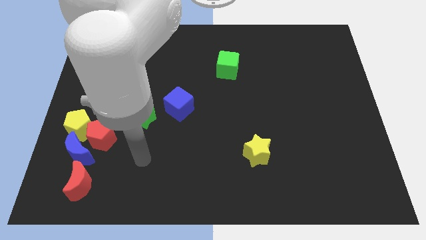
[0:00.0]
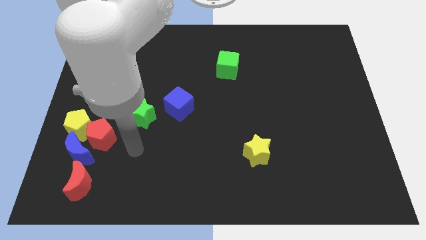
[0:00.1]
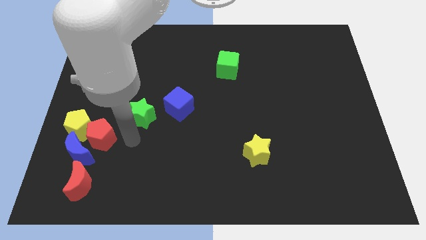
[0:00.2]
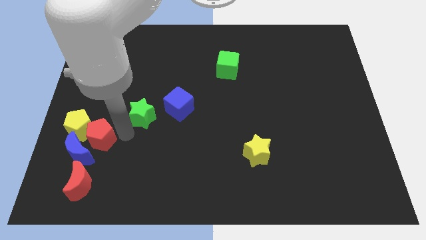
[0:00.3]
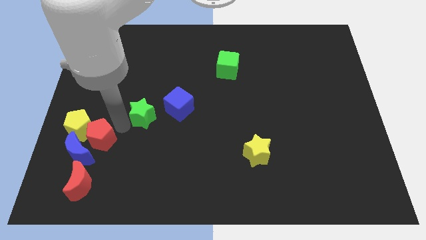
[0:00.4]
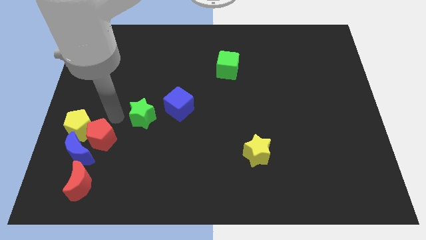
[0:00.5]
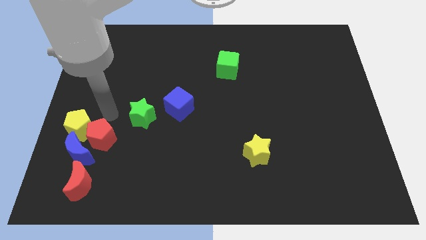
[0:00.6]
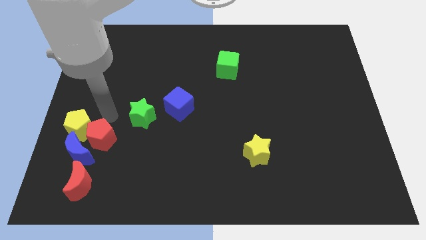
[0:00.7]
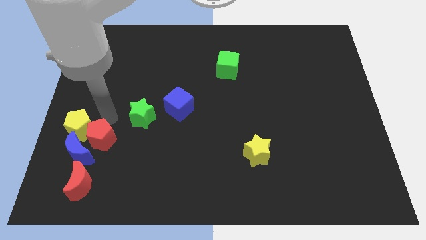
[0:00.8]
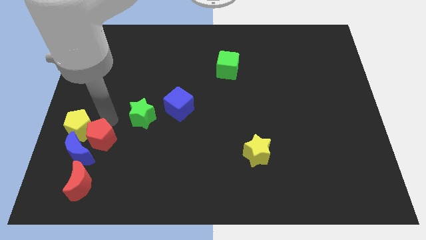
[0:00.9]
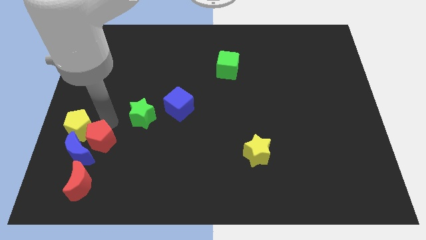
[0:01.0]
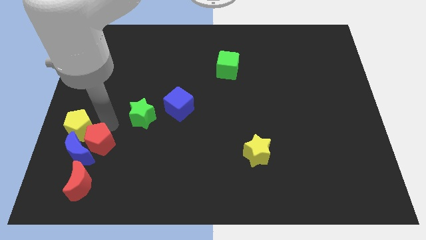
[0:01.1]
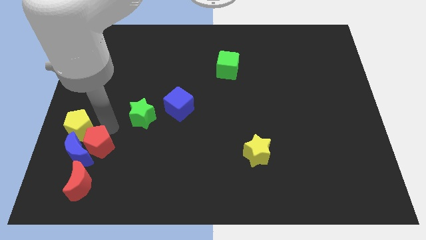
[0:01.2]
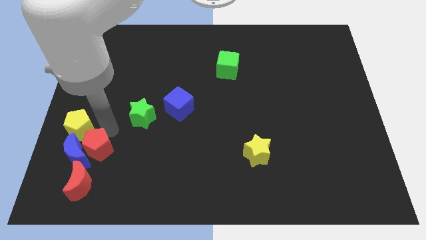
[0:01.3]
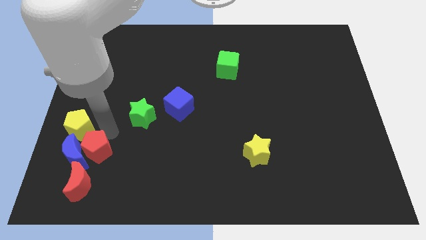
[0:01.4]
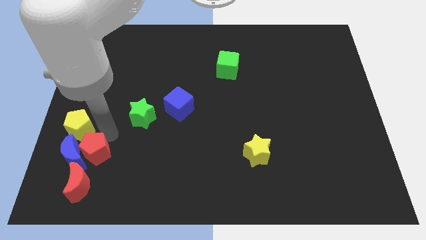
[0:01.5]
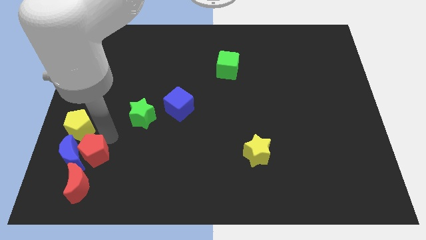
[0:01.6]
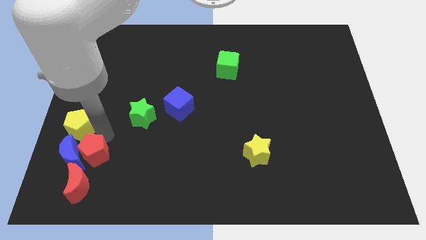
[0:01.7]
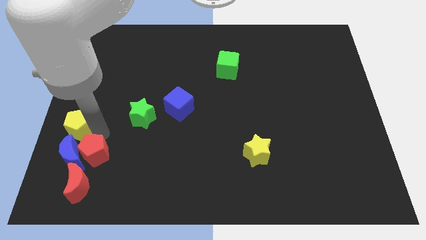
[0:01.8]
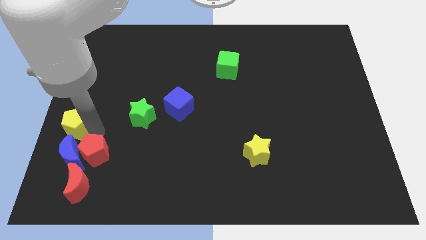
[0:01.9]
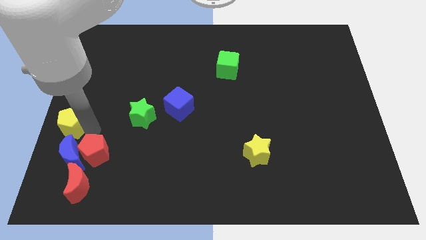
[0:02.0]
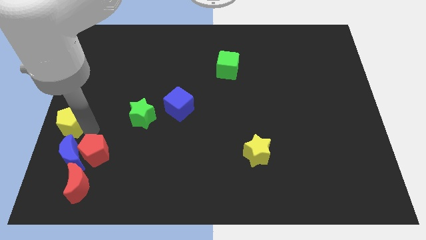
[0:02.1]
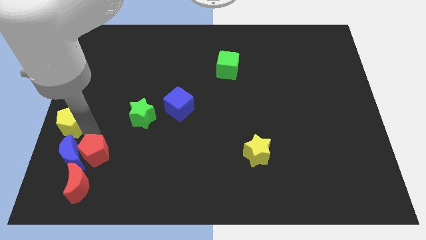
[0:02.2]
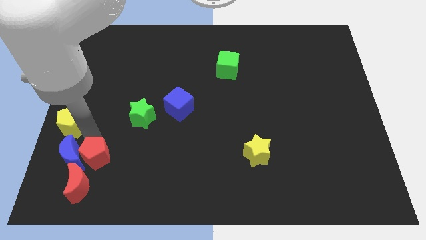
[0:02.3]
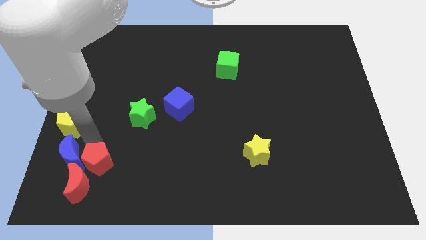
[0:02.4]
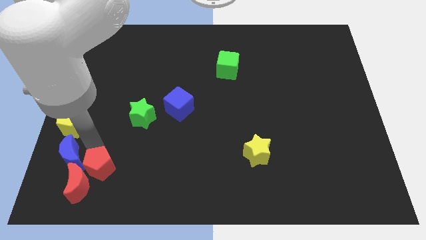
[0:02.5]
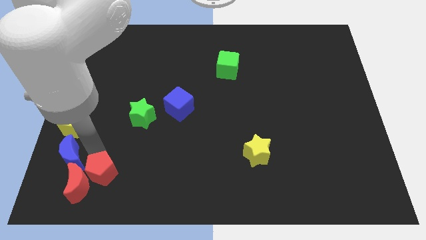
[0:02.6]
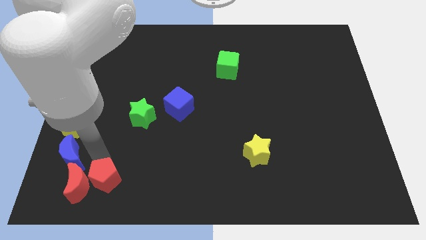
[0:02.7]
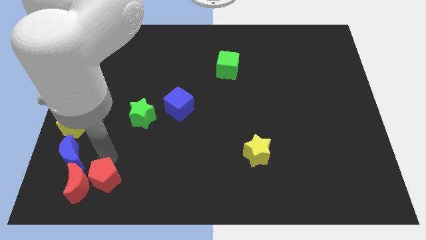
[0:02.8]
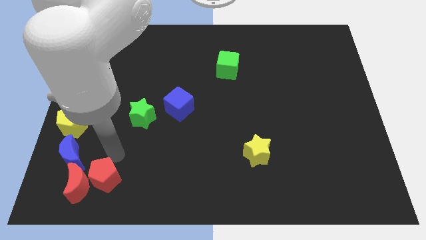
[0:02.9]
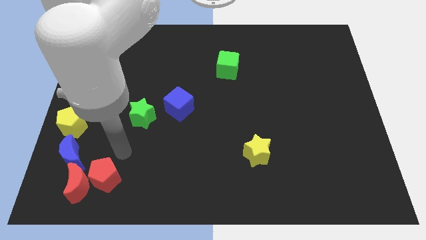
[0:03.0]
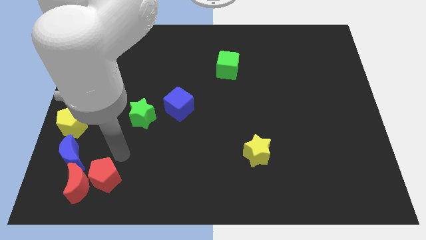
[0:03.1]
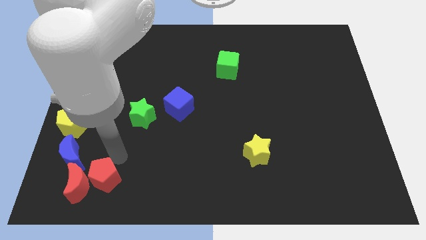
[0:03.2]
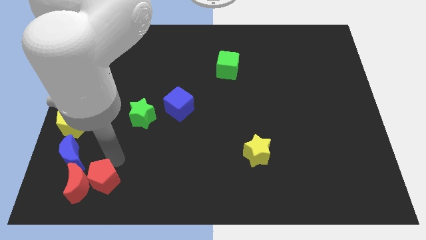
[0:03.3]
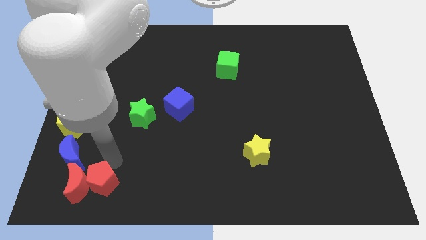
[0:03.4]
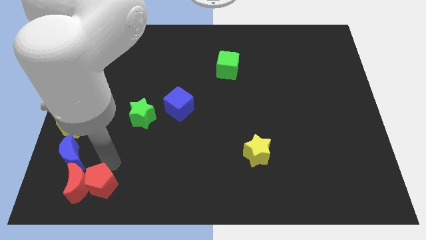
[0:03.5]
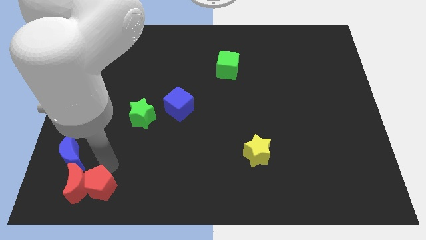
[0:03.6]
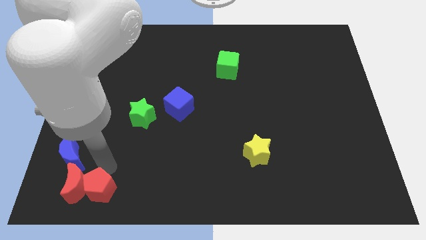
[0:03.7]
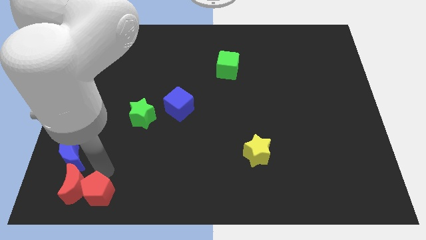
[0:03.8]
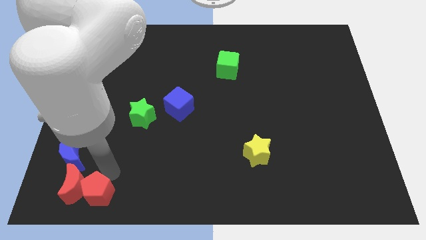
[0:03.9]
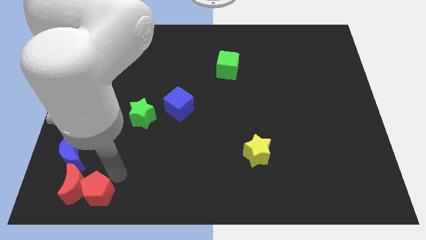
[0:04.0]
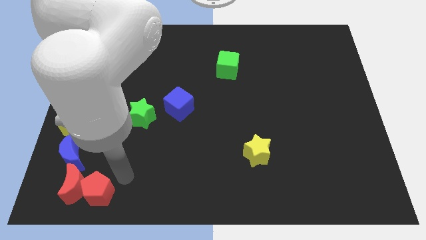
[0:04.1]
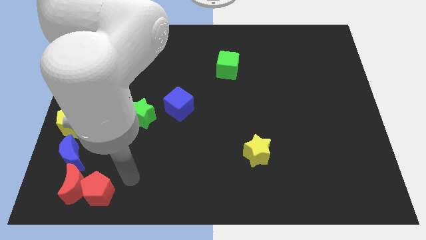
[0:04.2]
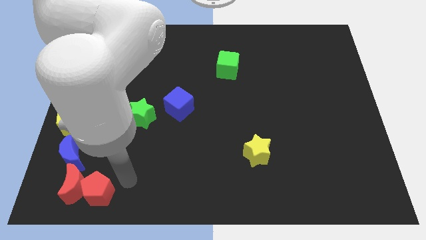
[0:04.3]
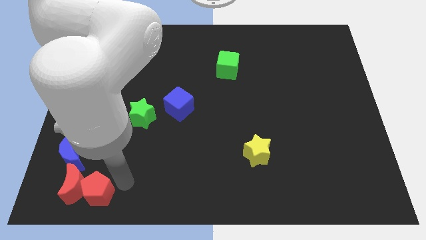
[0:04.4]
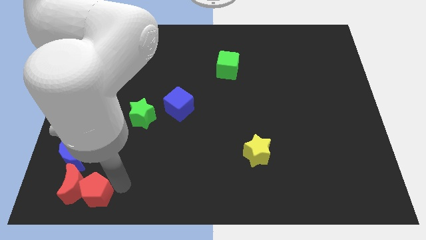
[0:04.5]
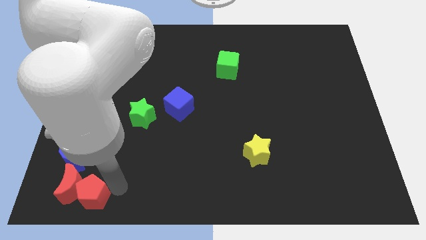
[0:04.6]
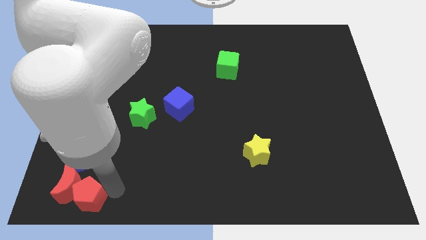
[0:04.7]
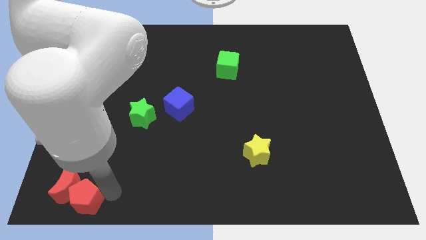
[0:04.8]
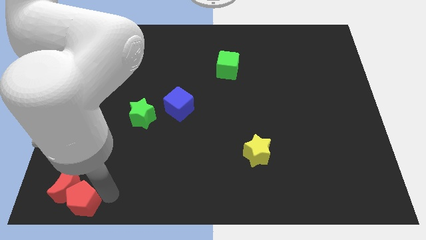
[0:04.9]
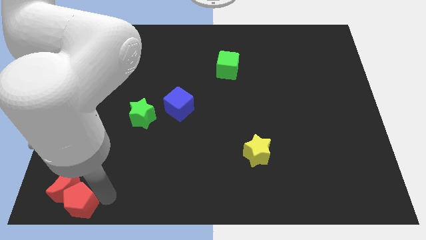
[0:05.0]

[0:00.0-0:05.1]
put the red pentagon to the lower left corner

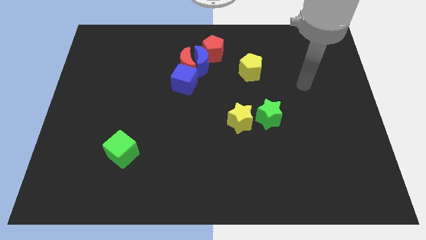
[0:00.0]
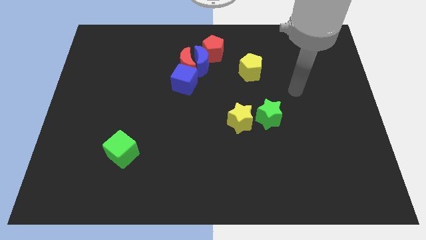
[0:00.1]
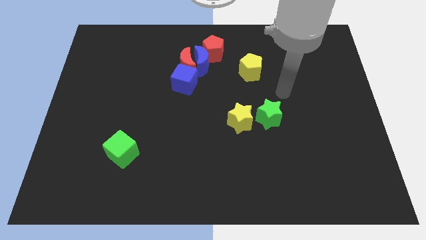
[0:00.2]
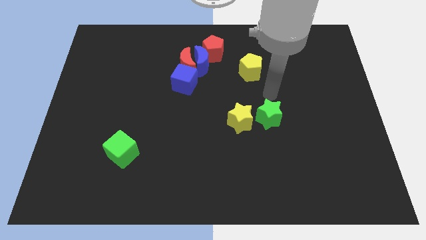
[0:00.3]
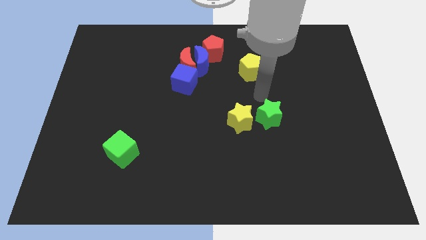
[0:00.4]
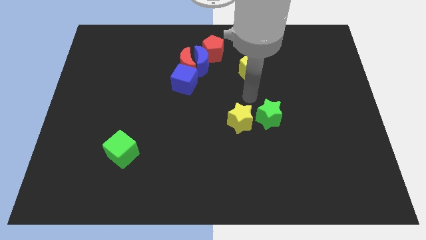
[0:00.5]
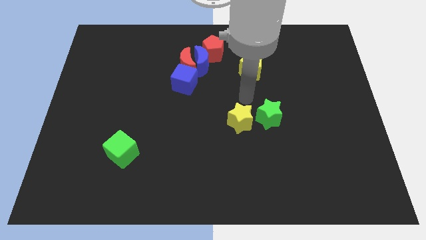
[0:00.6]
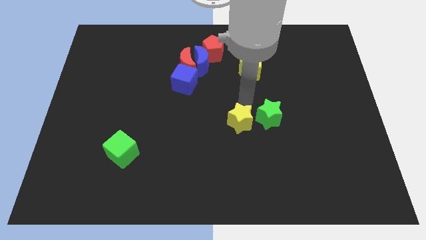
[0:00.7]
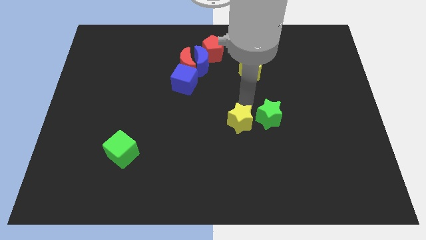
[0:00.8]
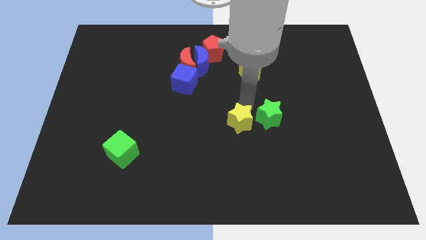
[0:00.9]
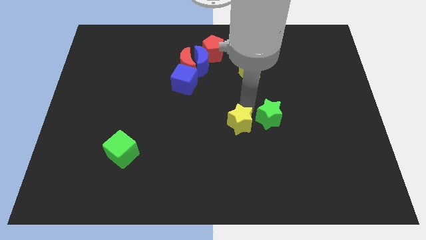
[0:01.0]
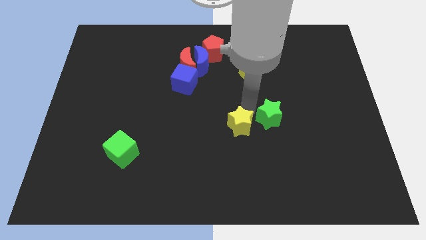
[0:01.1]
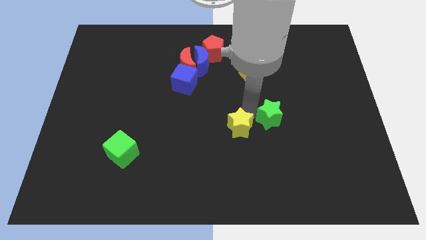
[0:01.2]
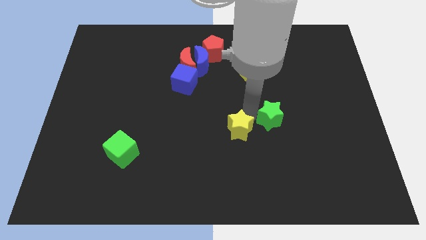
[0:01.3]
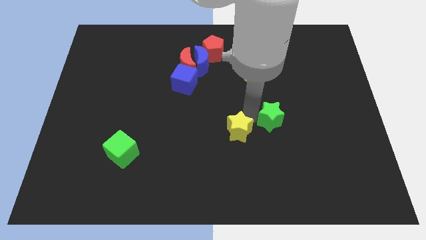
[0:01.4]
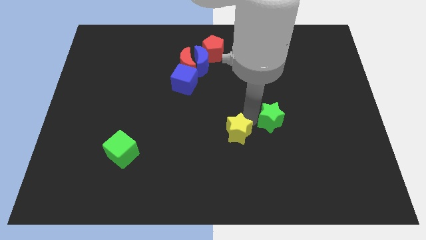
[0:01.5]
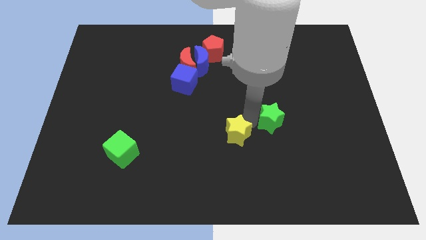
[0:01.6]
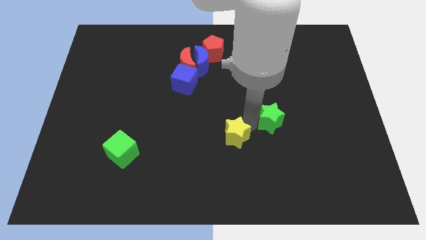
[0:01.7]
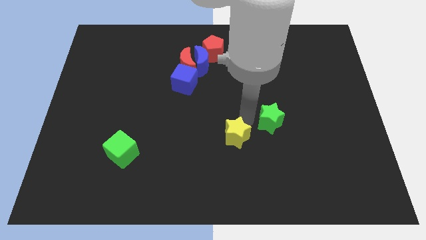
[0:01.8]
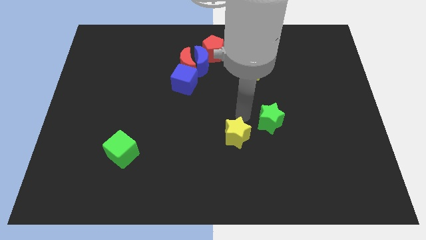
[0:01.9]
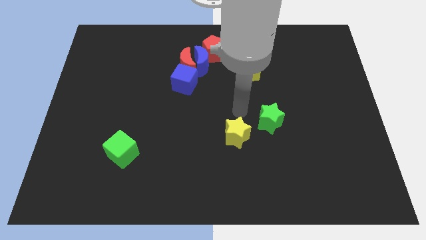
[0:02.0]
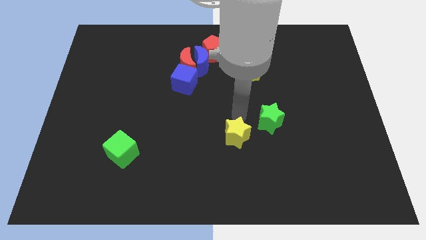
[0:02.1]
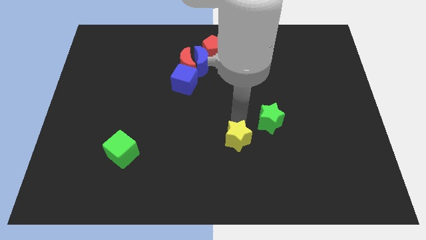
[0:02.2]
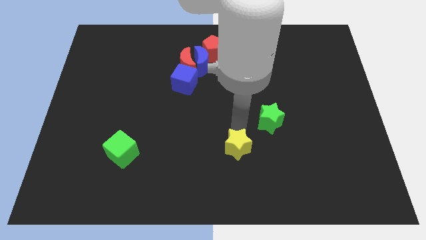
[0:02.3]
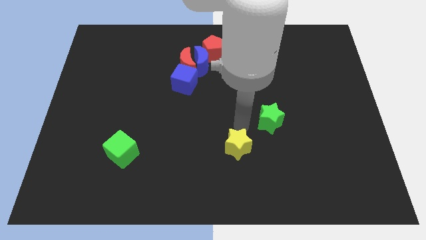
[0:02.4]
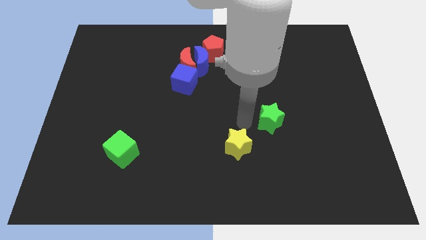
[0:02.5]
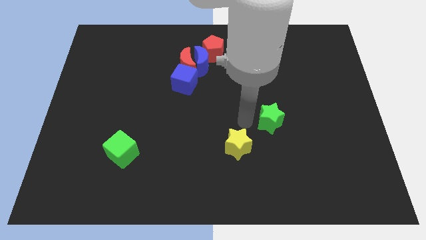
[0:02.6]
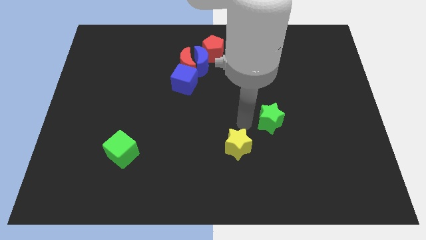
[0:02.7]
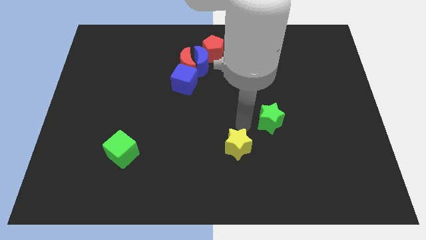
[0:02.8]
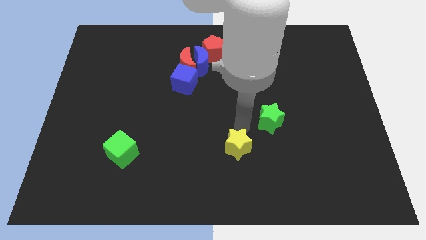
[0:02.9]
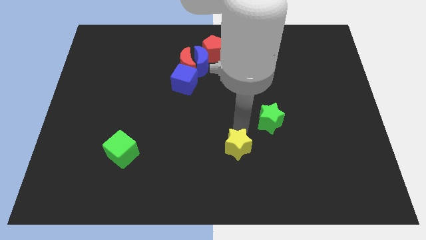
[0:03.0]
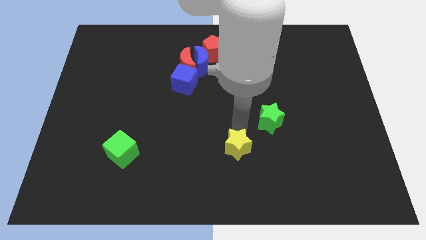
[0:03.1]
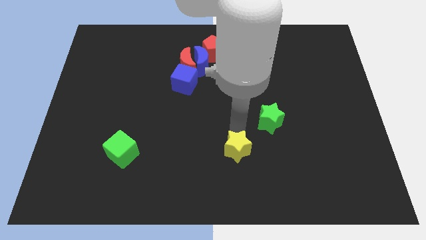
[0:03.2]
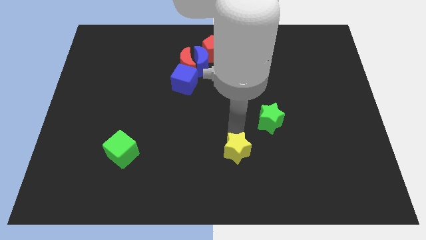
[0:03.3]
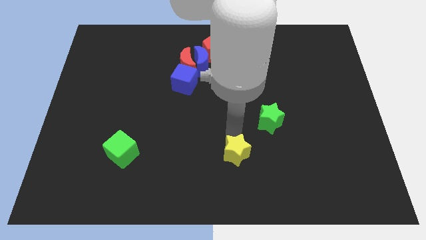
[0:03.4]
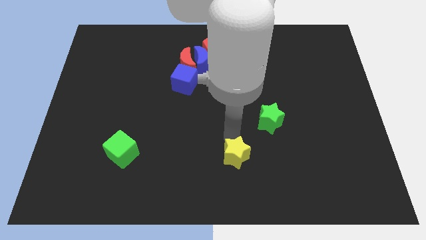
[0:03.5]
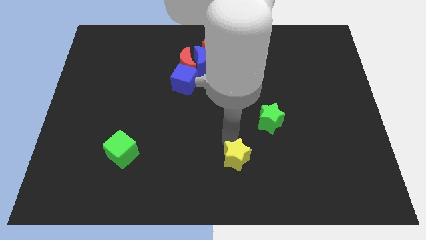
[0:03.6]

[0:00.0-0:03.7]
put the yellow star to the bottom side
